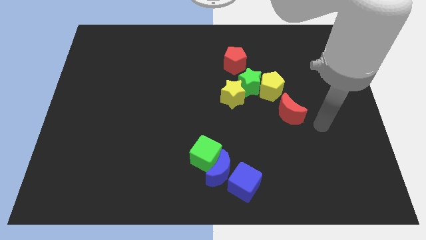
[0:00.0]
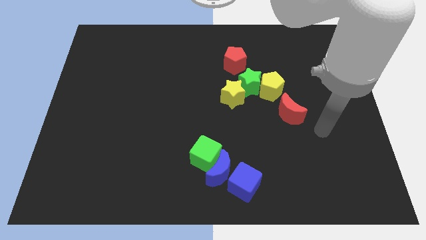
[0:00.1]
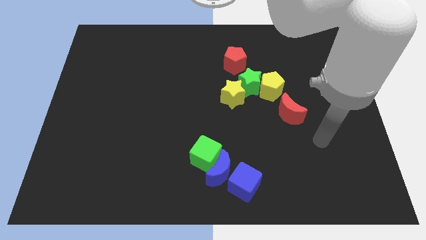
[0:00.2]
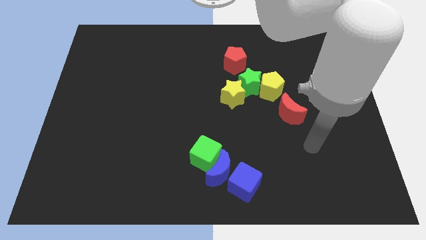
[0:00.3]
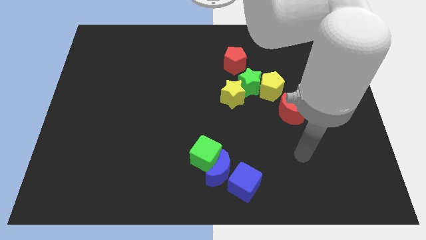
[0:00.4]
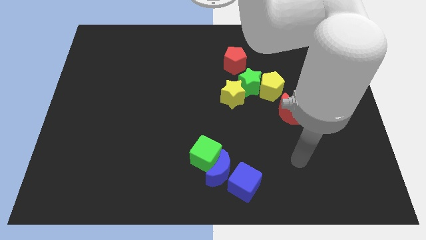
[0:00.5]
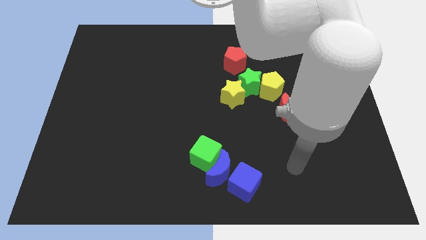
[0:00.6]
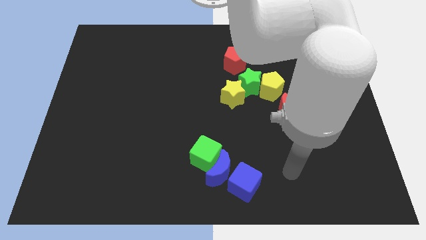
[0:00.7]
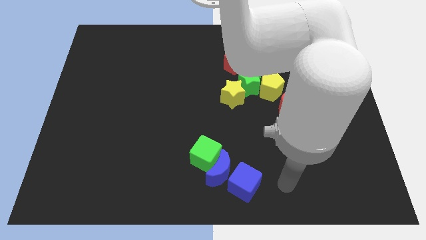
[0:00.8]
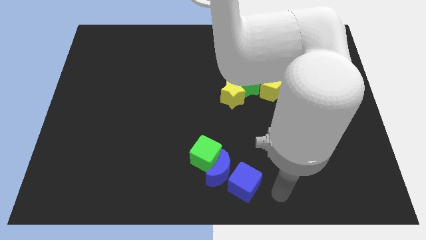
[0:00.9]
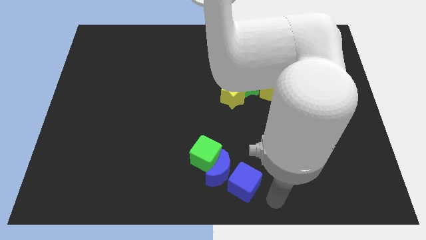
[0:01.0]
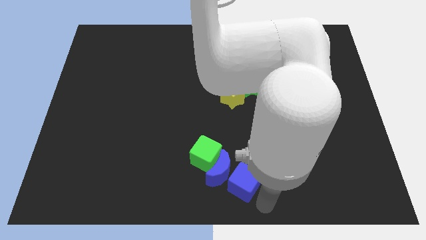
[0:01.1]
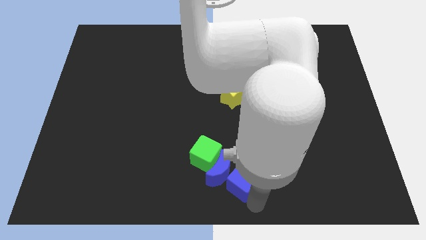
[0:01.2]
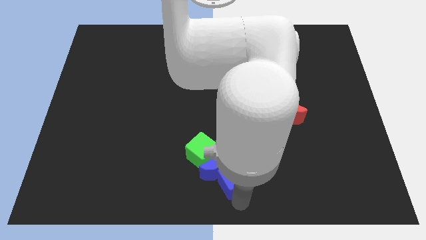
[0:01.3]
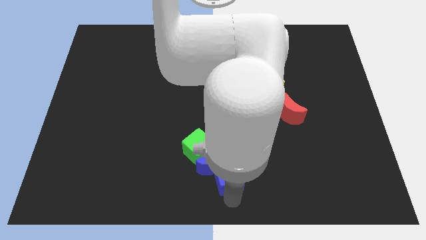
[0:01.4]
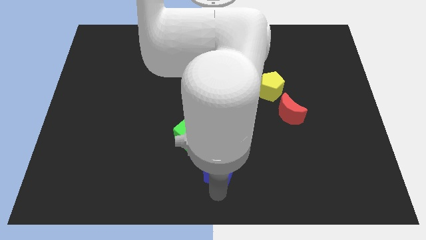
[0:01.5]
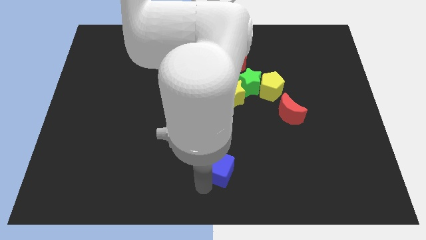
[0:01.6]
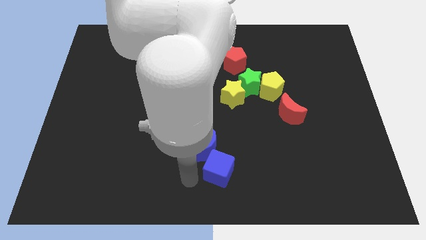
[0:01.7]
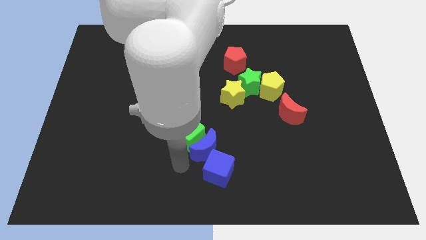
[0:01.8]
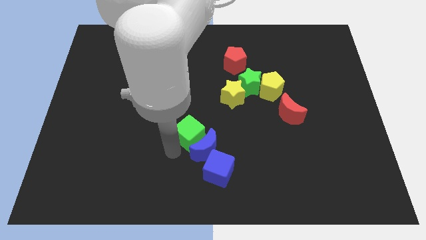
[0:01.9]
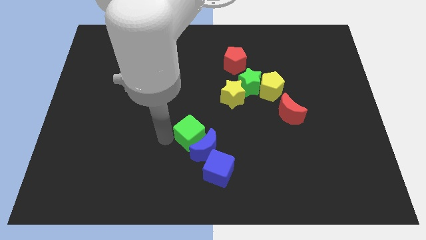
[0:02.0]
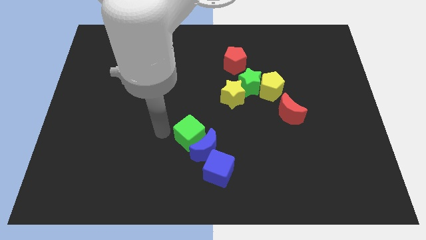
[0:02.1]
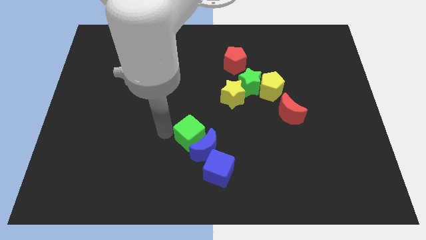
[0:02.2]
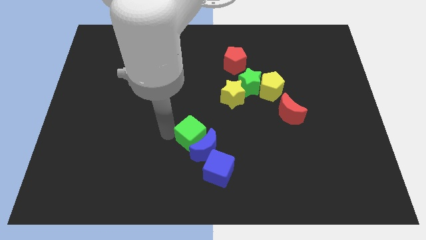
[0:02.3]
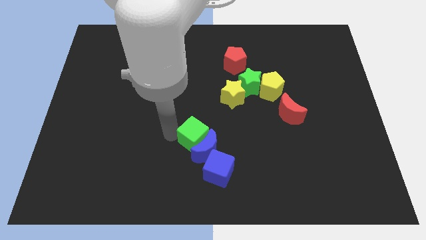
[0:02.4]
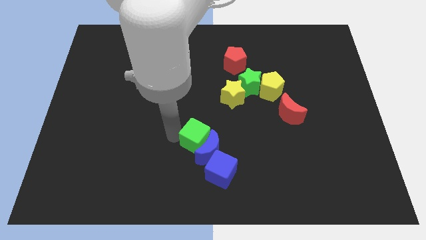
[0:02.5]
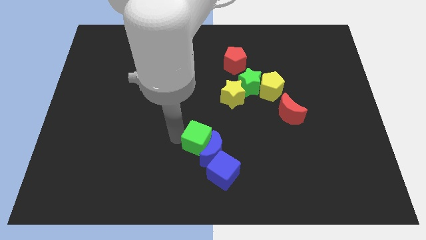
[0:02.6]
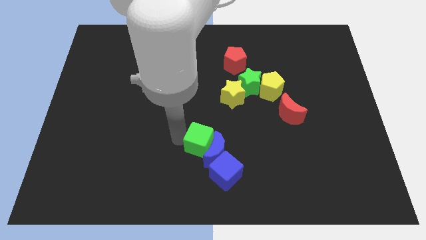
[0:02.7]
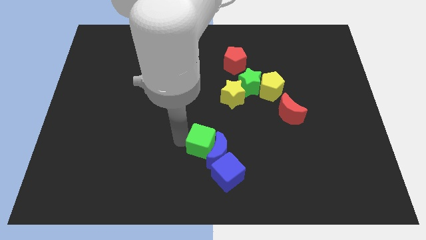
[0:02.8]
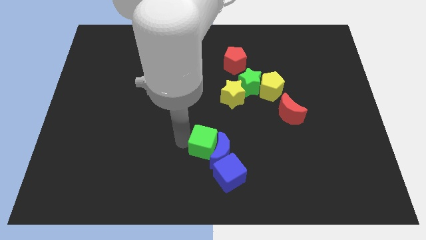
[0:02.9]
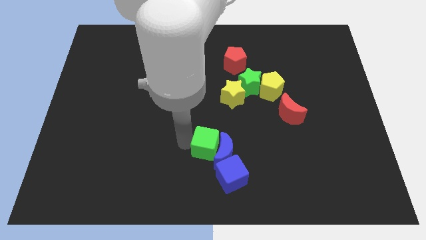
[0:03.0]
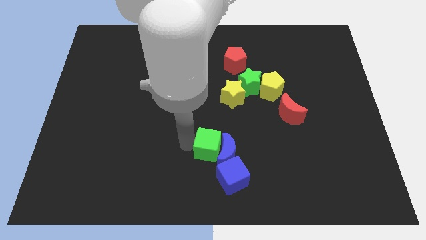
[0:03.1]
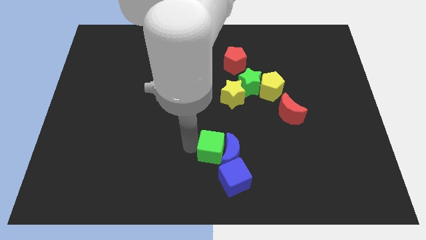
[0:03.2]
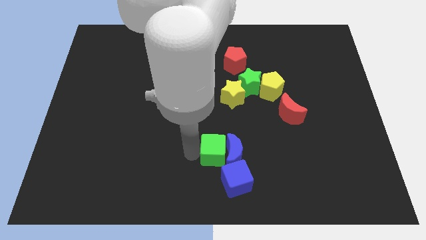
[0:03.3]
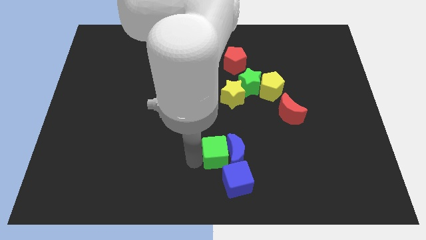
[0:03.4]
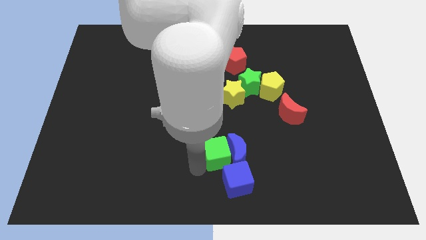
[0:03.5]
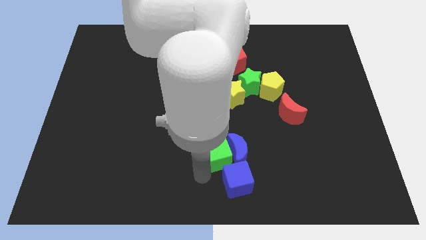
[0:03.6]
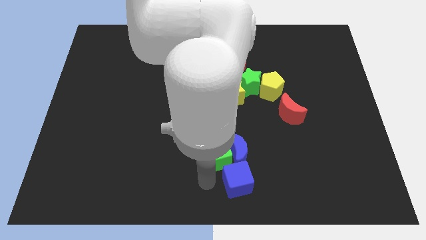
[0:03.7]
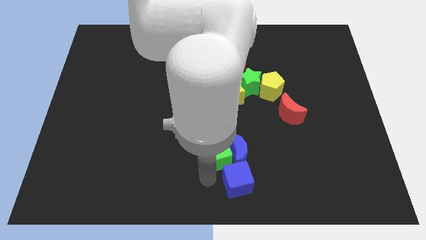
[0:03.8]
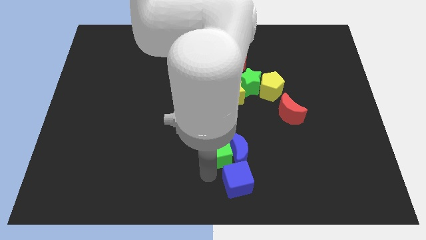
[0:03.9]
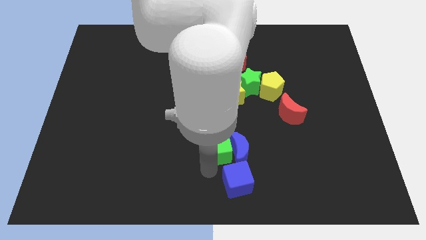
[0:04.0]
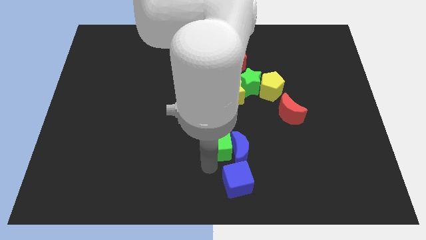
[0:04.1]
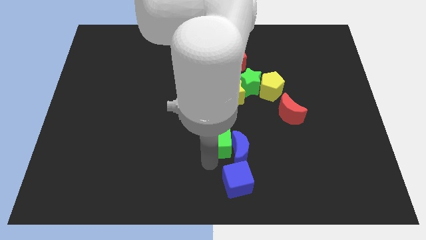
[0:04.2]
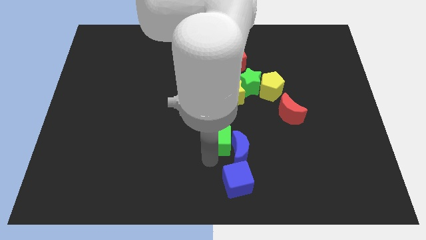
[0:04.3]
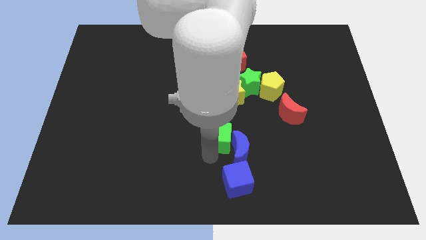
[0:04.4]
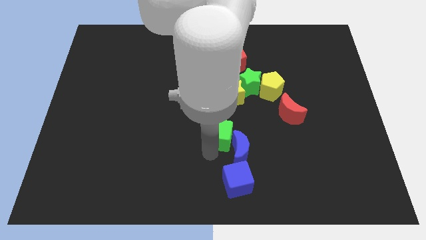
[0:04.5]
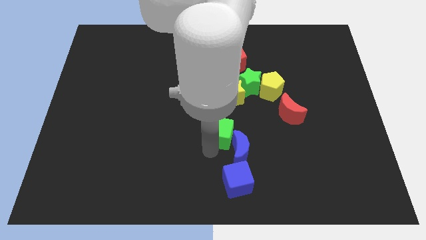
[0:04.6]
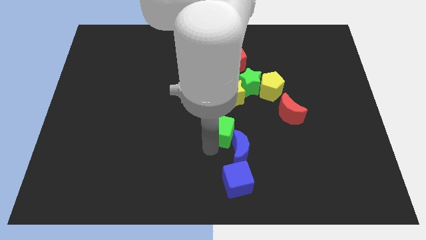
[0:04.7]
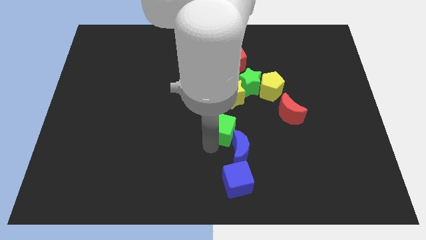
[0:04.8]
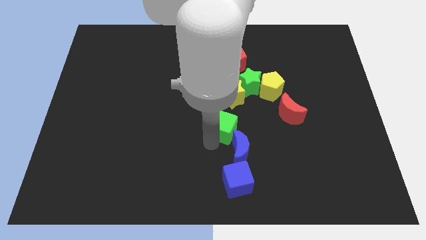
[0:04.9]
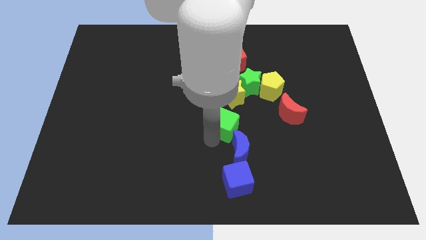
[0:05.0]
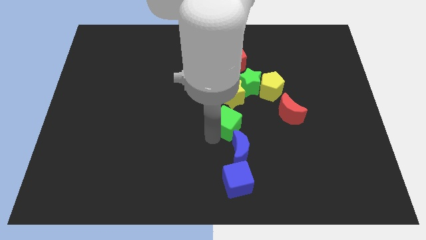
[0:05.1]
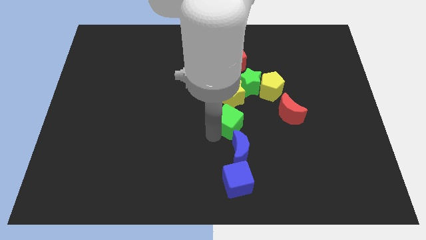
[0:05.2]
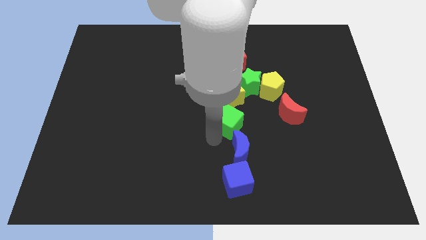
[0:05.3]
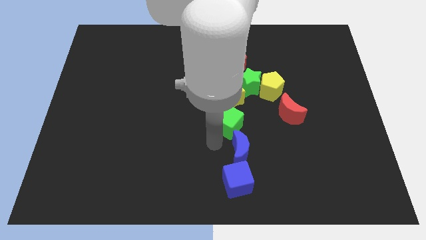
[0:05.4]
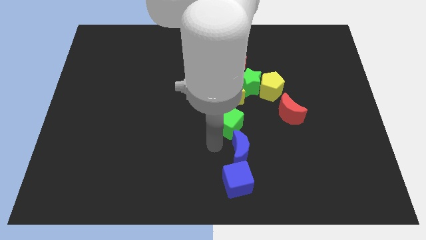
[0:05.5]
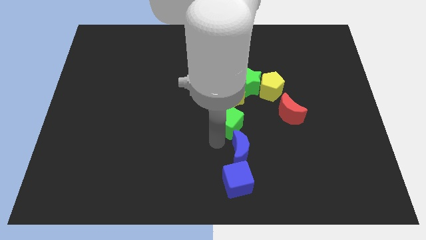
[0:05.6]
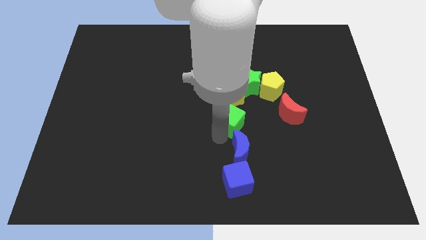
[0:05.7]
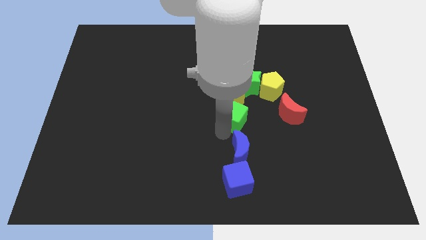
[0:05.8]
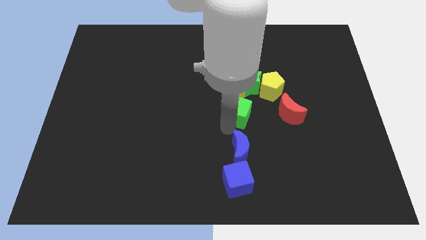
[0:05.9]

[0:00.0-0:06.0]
put the green cube to the bottom of the red pentagon

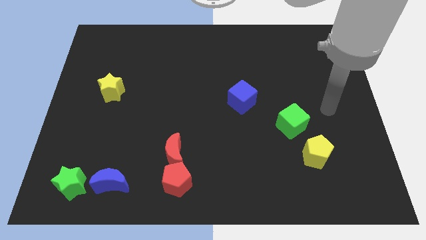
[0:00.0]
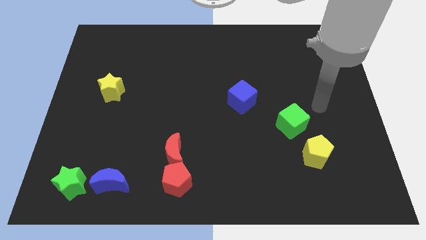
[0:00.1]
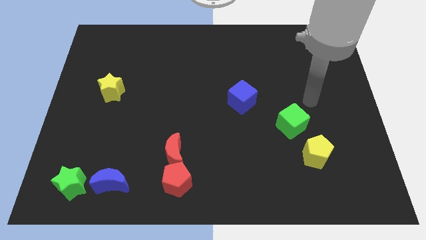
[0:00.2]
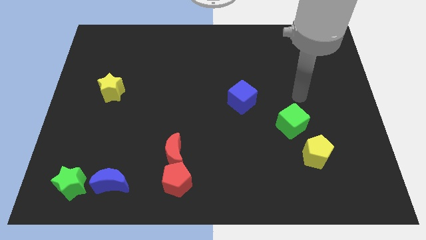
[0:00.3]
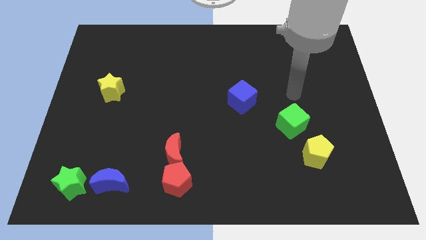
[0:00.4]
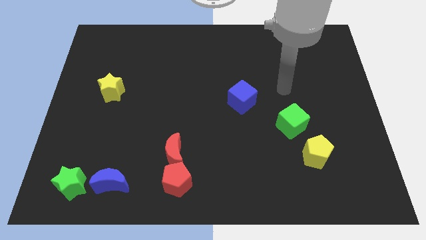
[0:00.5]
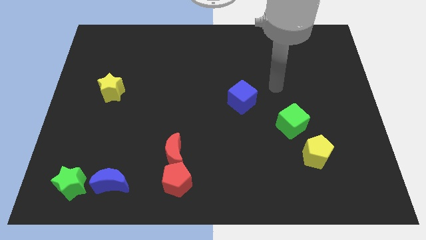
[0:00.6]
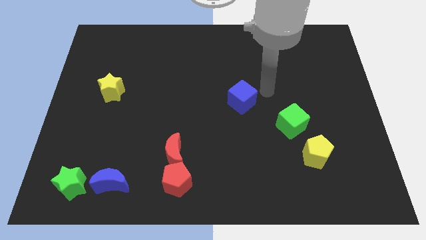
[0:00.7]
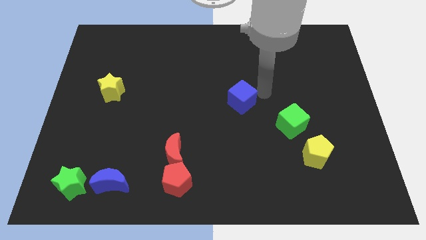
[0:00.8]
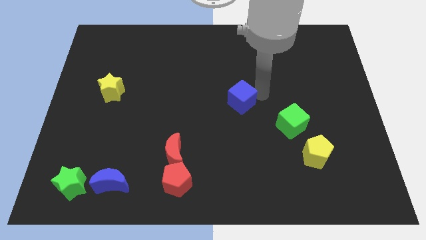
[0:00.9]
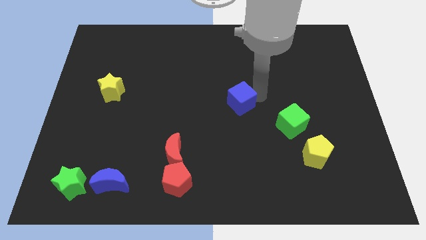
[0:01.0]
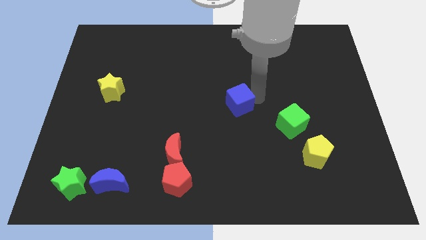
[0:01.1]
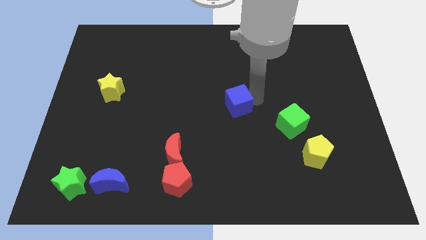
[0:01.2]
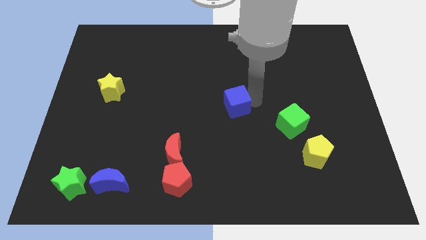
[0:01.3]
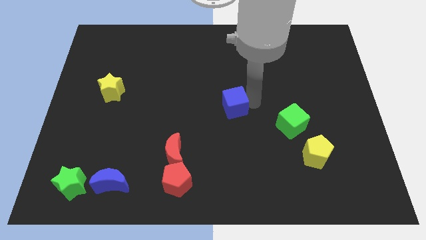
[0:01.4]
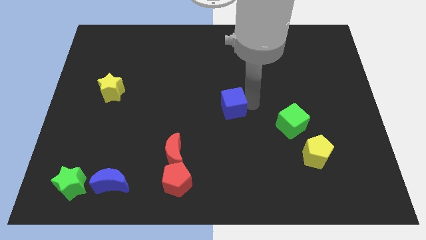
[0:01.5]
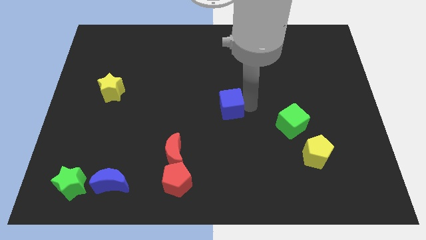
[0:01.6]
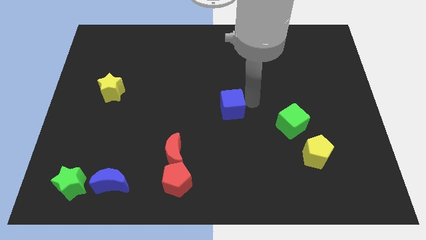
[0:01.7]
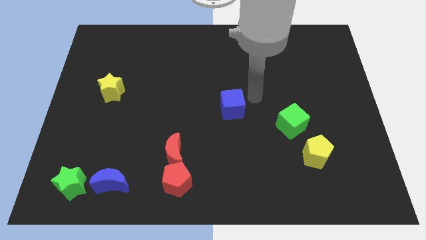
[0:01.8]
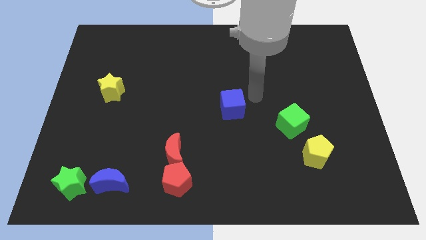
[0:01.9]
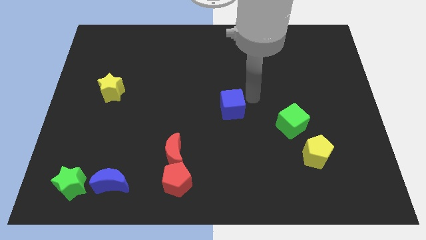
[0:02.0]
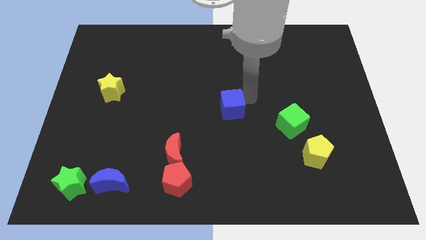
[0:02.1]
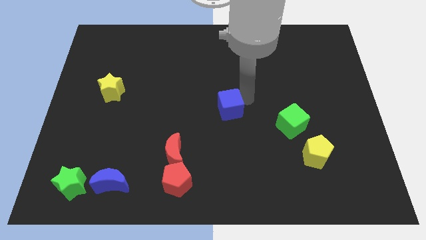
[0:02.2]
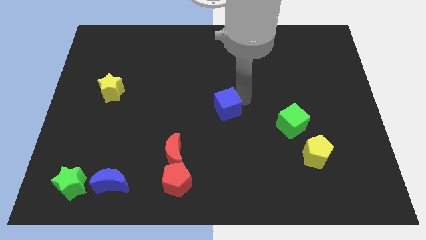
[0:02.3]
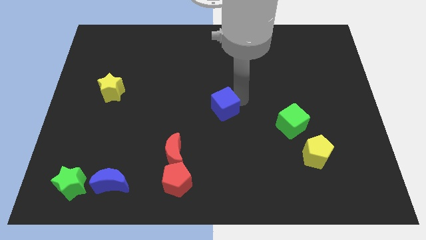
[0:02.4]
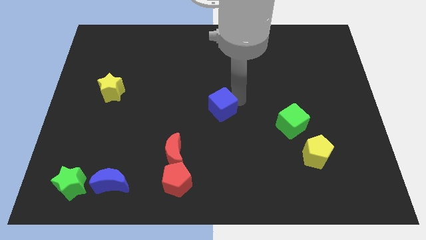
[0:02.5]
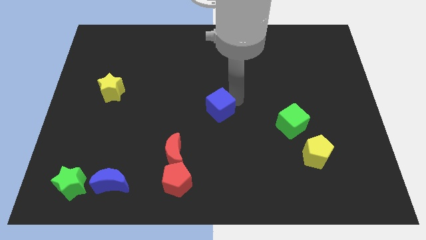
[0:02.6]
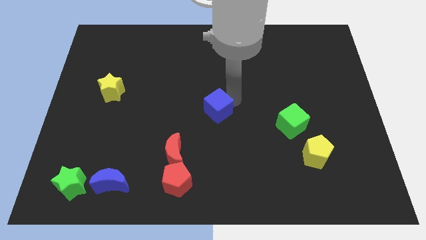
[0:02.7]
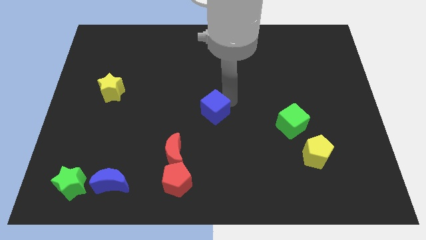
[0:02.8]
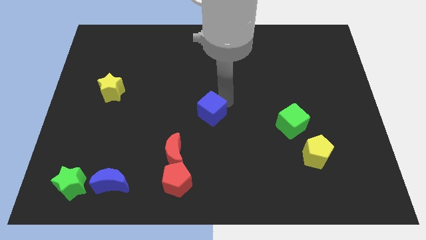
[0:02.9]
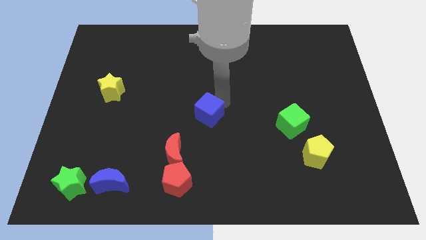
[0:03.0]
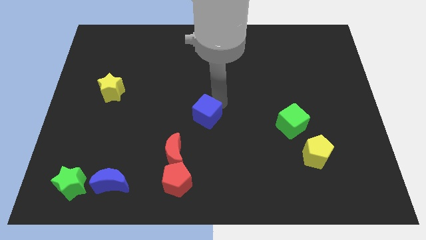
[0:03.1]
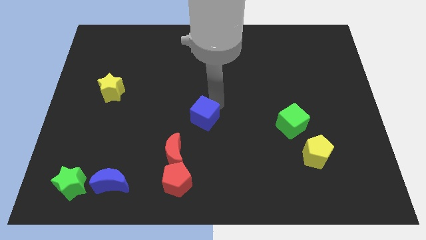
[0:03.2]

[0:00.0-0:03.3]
put the blue cube to the top right of the red moon
